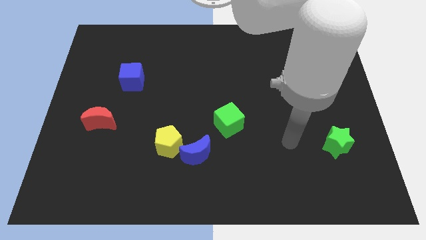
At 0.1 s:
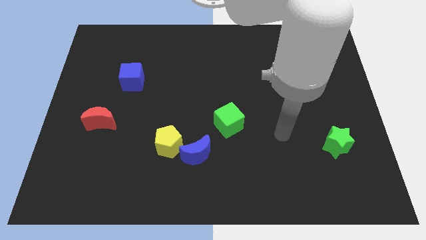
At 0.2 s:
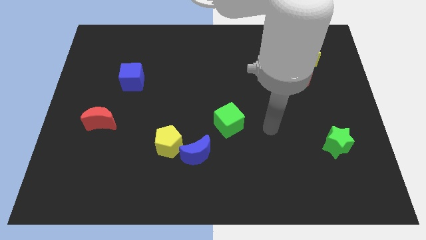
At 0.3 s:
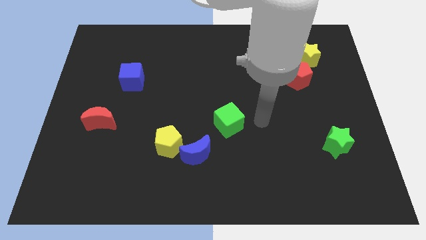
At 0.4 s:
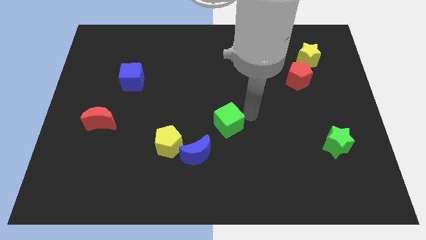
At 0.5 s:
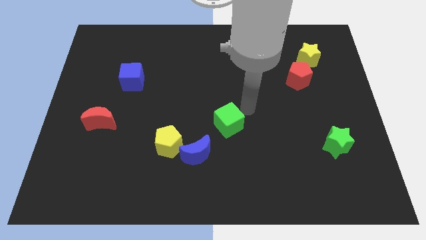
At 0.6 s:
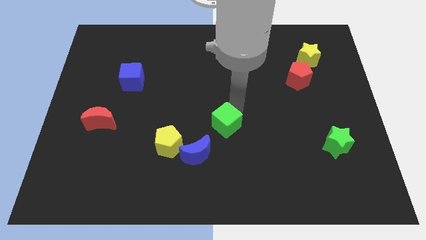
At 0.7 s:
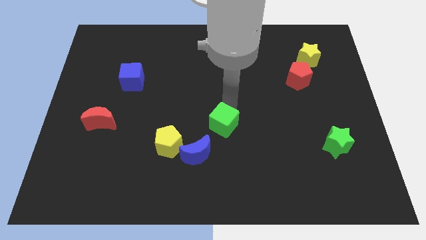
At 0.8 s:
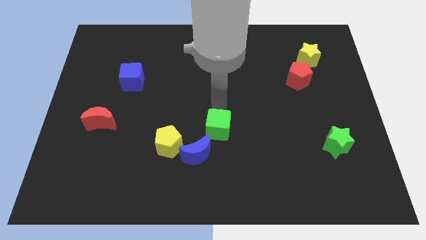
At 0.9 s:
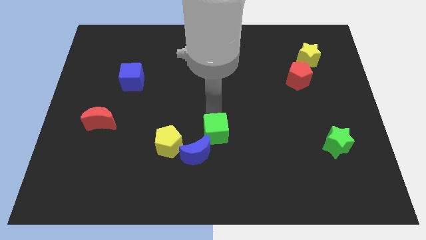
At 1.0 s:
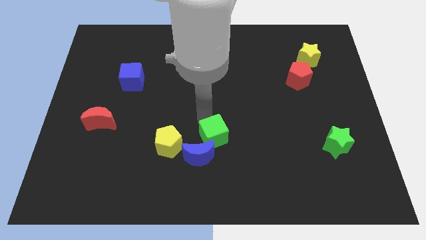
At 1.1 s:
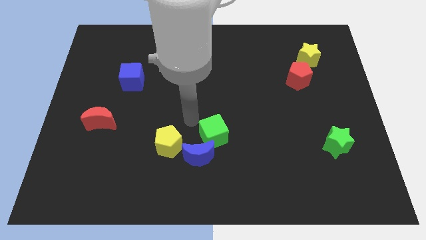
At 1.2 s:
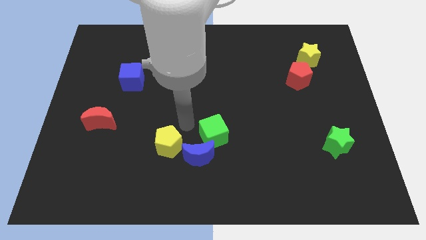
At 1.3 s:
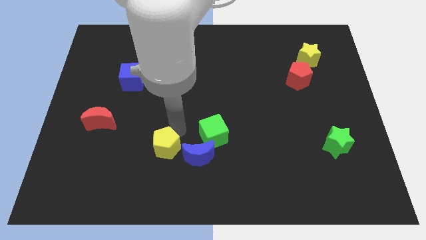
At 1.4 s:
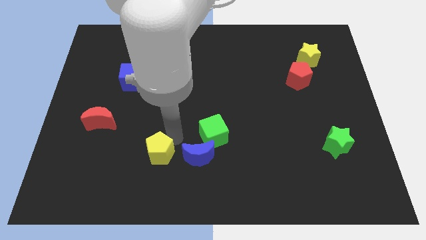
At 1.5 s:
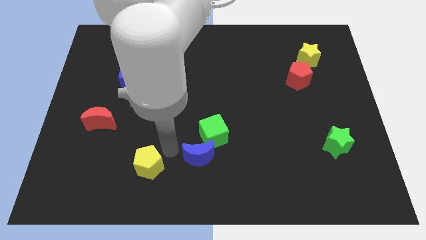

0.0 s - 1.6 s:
pull the blue moon apart from the yellow pentagon

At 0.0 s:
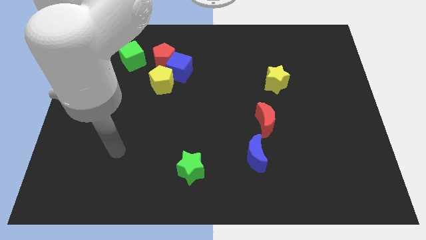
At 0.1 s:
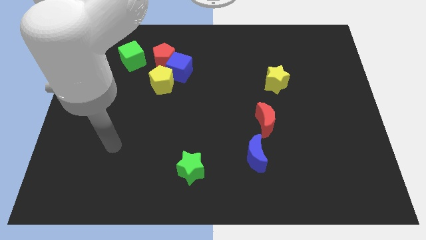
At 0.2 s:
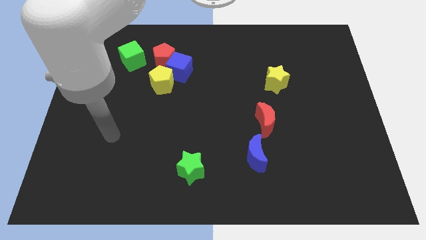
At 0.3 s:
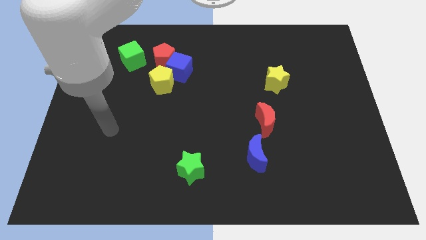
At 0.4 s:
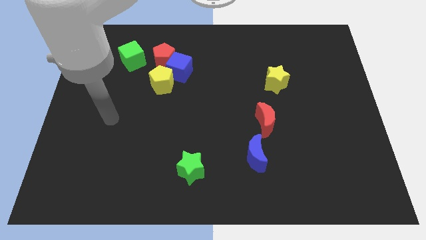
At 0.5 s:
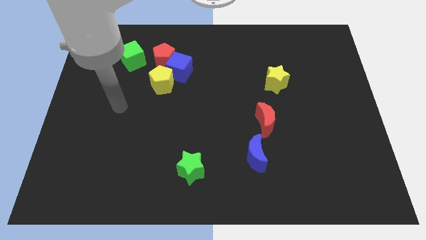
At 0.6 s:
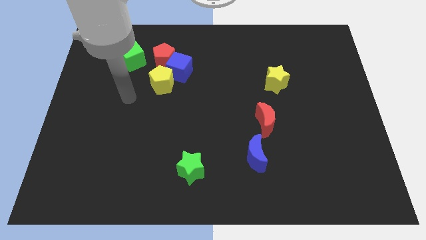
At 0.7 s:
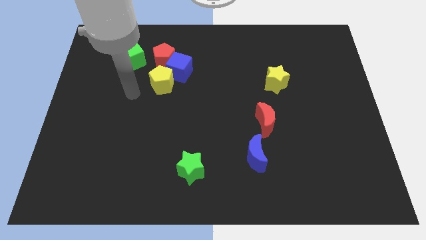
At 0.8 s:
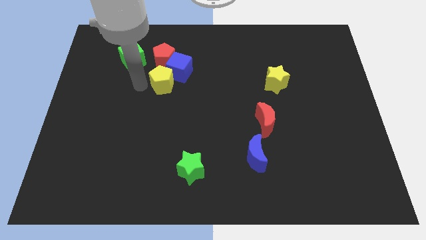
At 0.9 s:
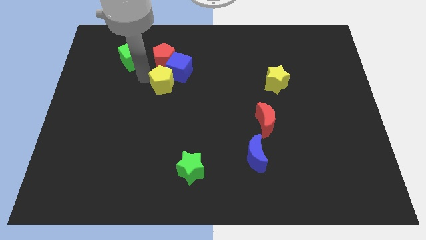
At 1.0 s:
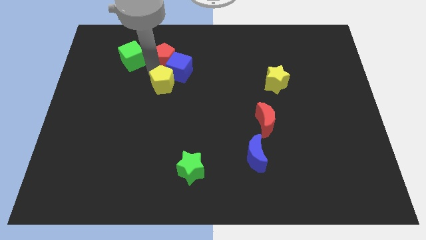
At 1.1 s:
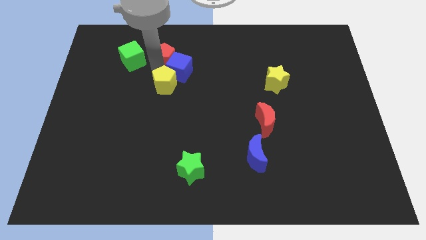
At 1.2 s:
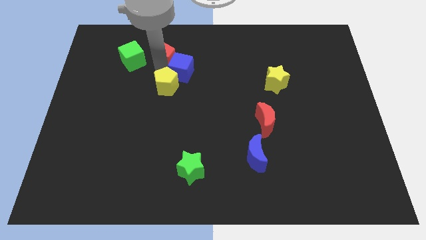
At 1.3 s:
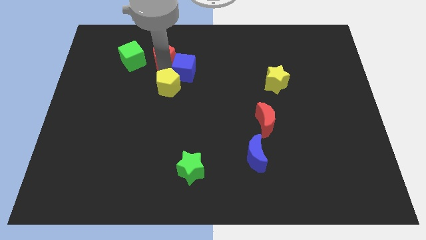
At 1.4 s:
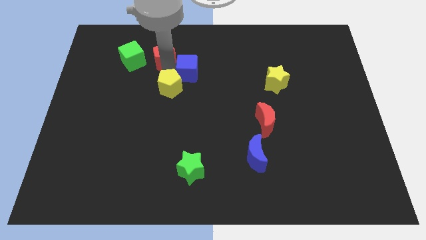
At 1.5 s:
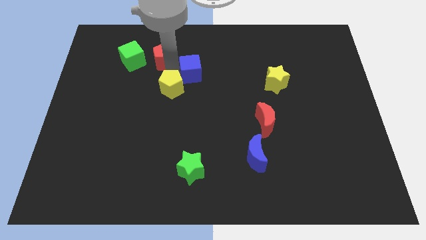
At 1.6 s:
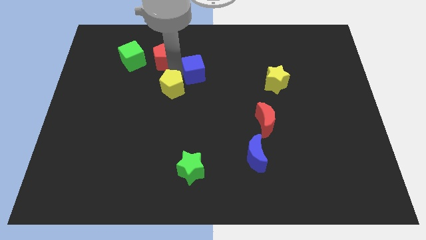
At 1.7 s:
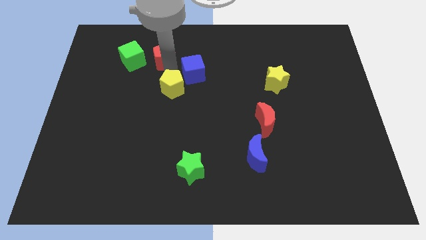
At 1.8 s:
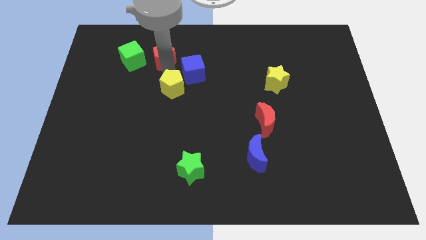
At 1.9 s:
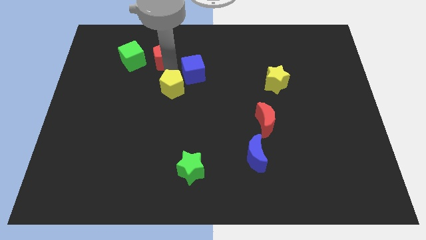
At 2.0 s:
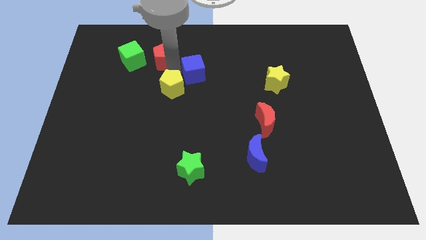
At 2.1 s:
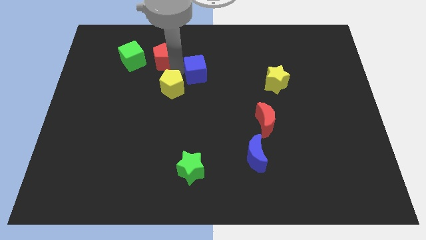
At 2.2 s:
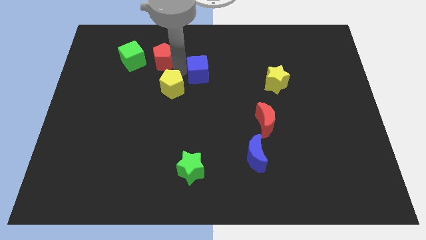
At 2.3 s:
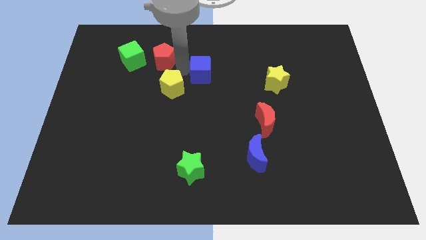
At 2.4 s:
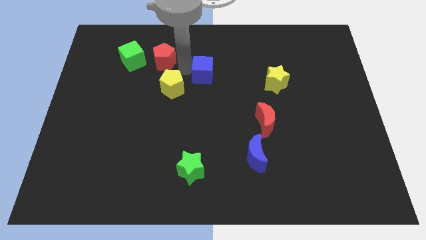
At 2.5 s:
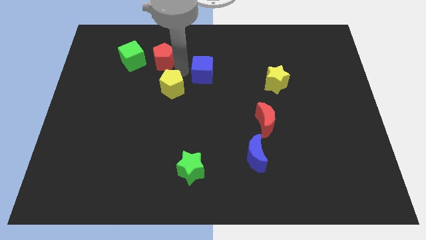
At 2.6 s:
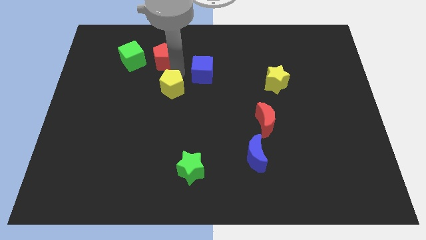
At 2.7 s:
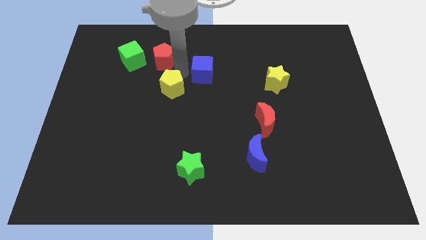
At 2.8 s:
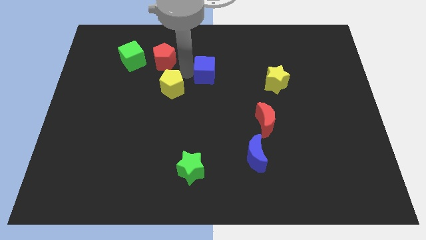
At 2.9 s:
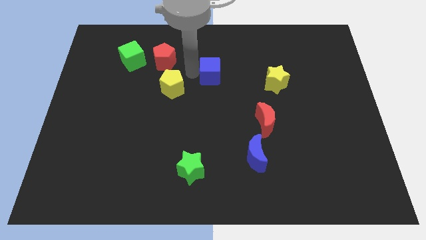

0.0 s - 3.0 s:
pull the blue cube apart from the red pentagon and yellow pentagon

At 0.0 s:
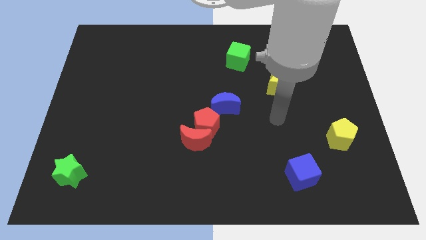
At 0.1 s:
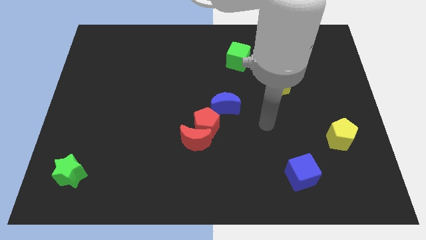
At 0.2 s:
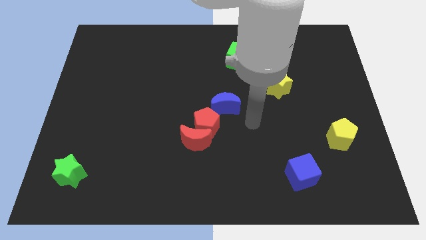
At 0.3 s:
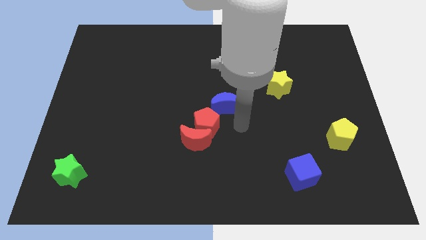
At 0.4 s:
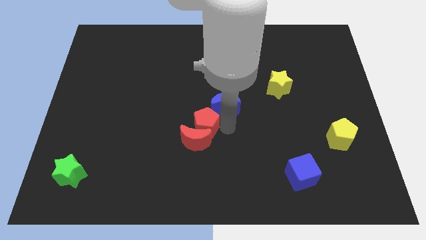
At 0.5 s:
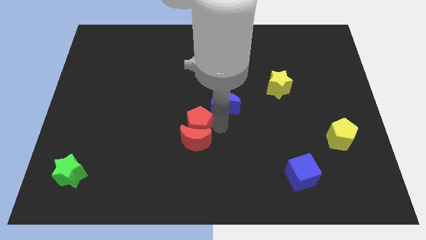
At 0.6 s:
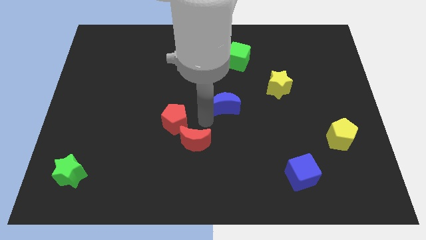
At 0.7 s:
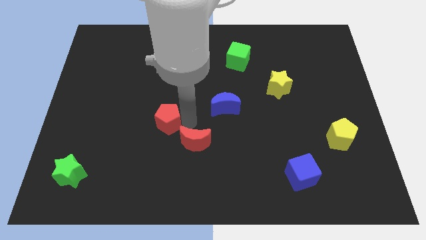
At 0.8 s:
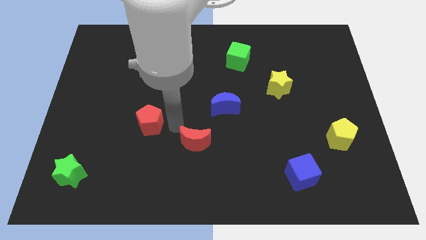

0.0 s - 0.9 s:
move the red moon away from the red pentagon

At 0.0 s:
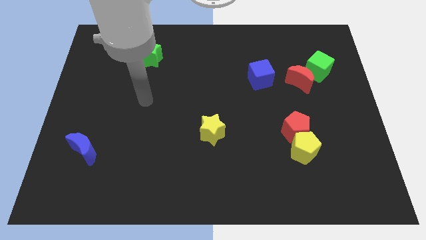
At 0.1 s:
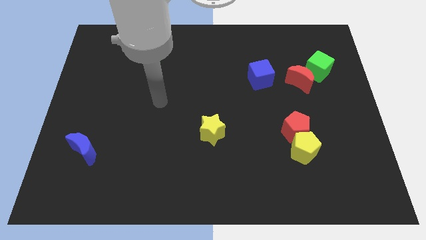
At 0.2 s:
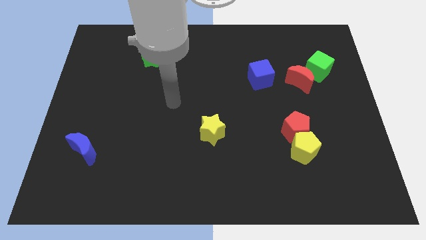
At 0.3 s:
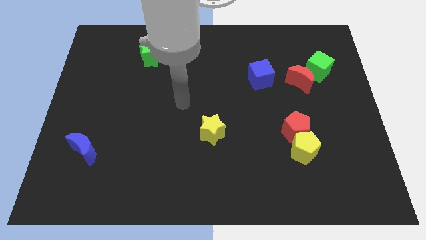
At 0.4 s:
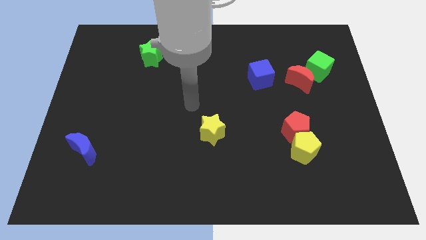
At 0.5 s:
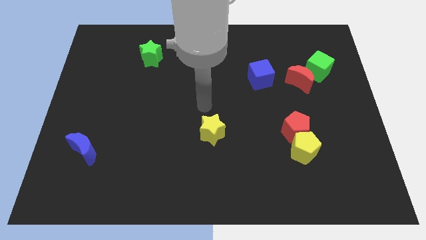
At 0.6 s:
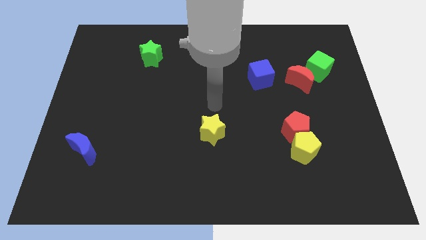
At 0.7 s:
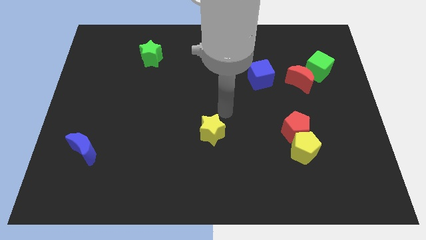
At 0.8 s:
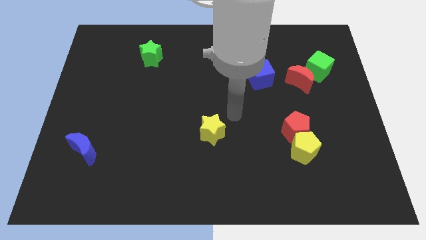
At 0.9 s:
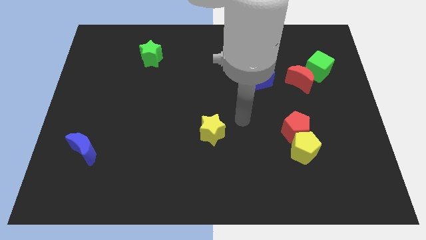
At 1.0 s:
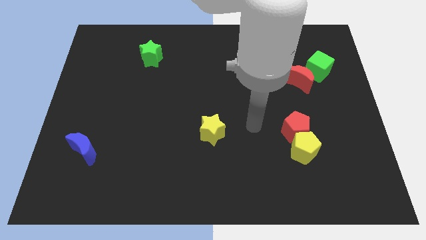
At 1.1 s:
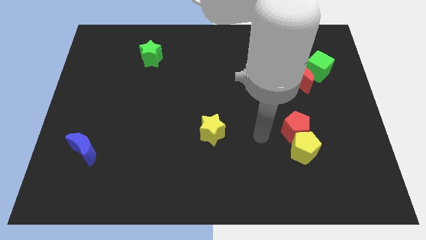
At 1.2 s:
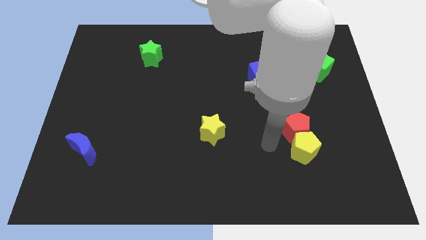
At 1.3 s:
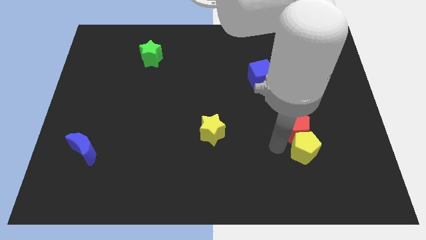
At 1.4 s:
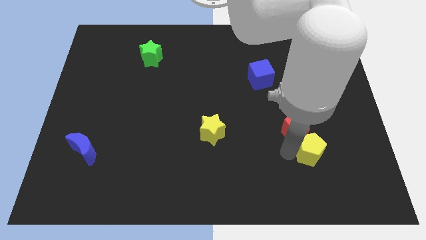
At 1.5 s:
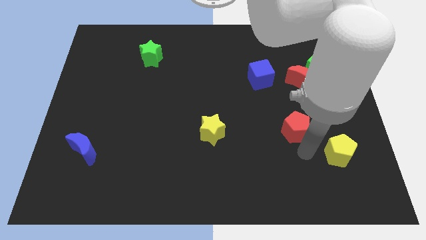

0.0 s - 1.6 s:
move the red pentagon away from the yellow pentagon

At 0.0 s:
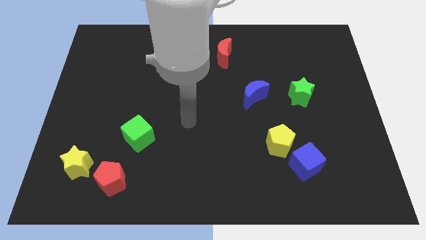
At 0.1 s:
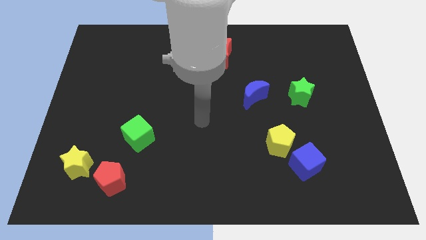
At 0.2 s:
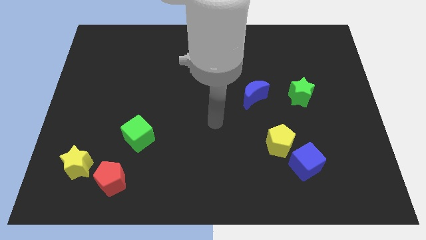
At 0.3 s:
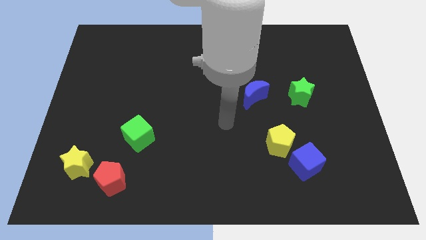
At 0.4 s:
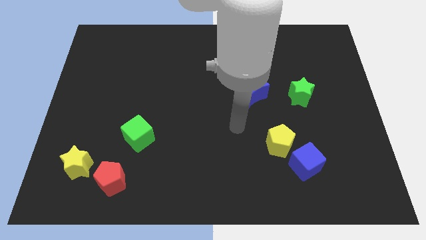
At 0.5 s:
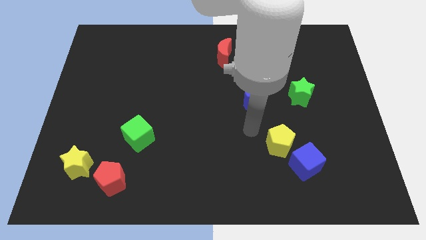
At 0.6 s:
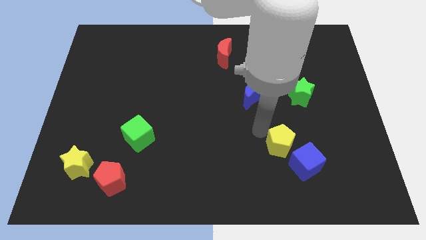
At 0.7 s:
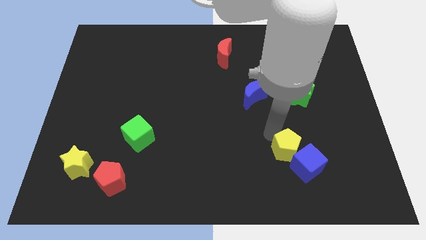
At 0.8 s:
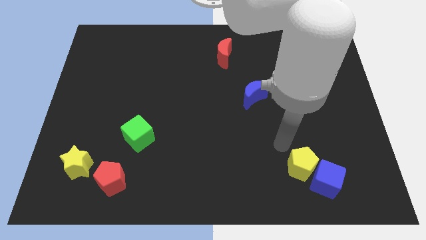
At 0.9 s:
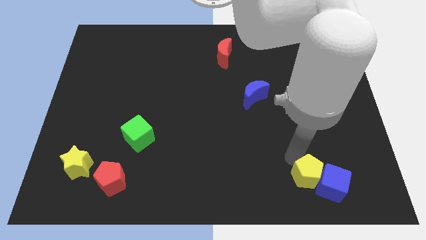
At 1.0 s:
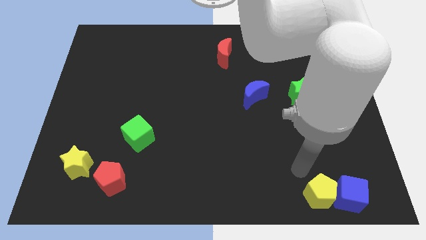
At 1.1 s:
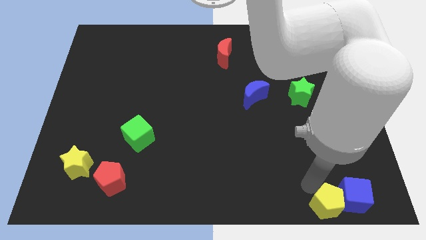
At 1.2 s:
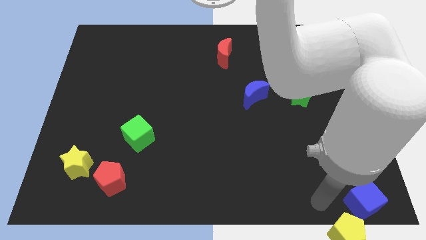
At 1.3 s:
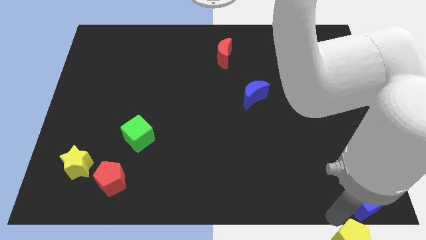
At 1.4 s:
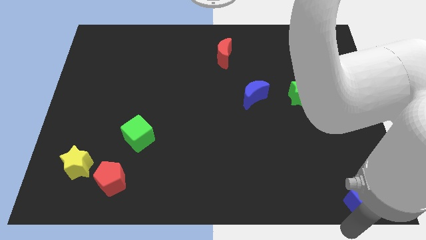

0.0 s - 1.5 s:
separate the blue cube from the yellow pentagon

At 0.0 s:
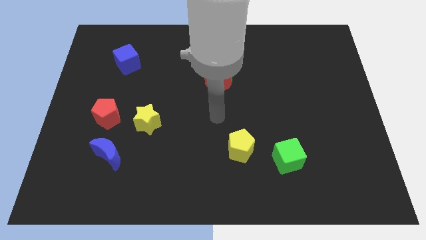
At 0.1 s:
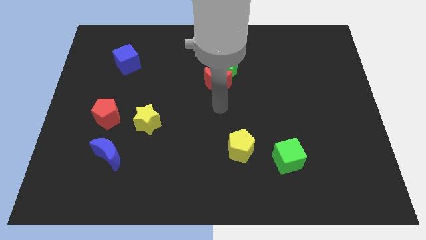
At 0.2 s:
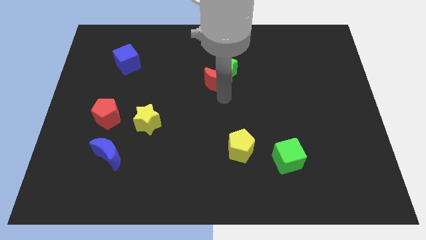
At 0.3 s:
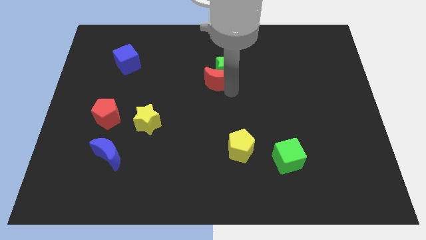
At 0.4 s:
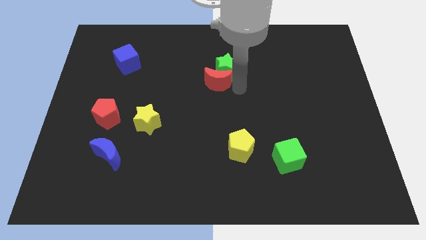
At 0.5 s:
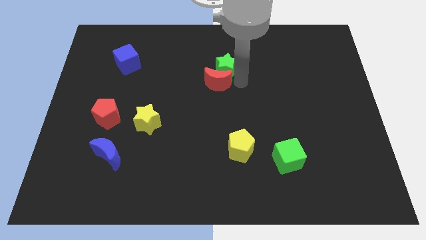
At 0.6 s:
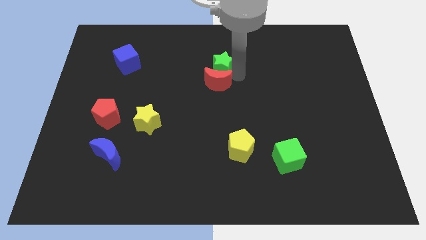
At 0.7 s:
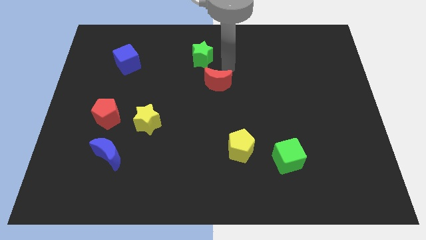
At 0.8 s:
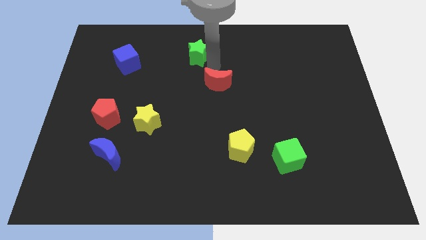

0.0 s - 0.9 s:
move the red moon away from the green star
